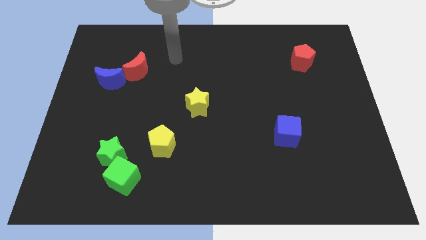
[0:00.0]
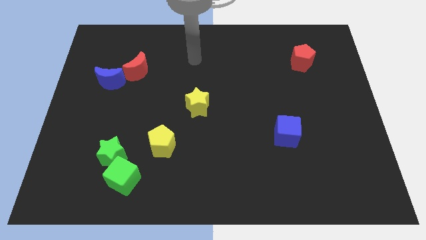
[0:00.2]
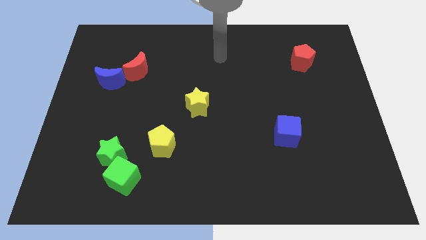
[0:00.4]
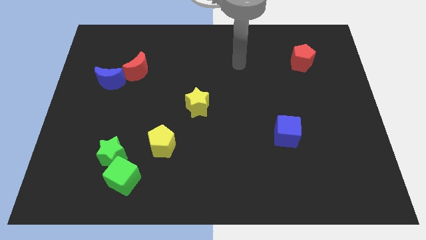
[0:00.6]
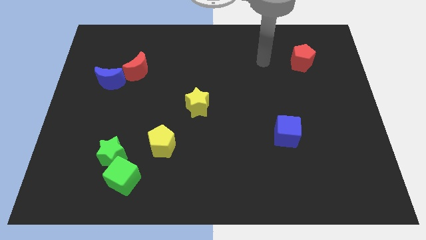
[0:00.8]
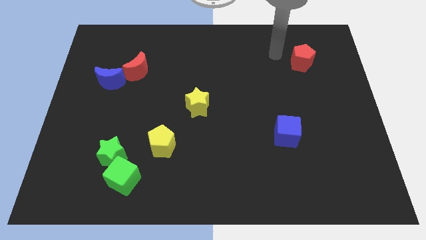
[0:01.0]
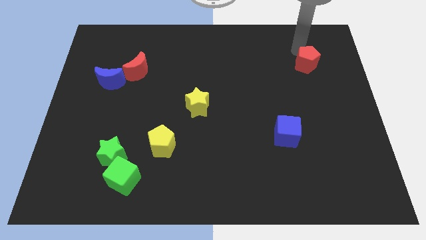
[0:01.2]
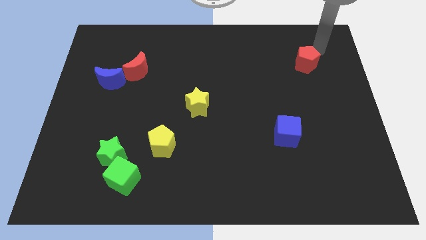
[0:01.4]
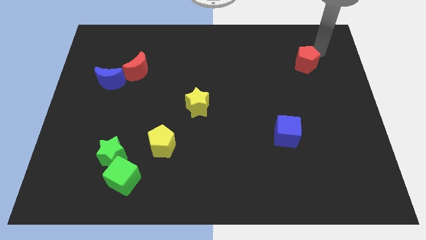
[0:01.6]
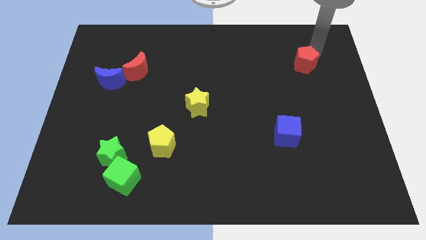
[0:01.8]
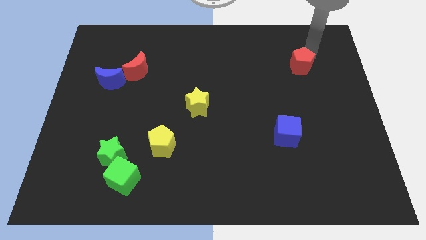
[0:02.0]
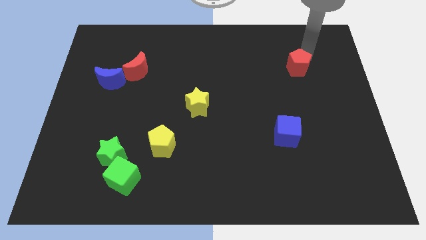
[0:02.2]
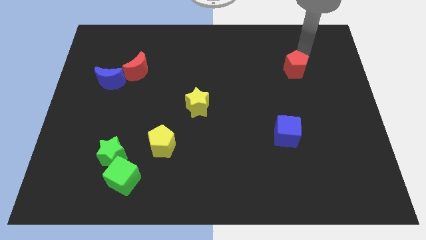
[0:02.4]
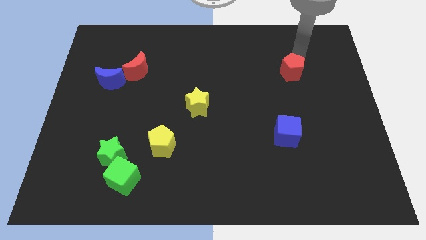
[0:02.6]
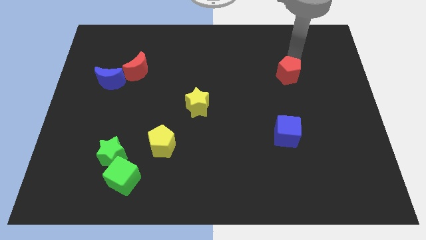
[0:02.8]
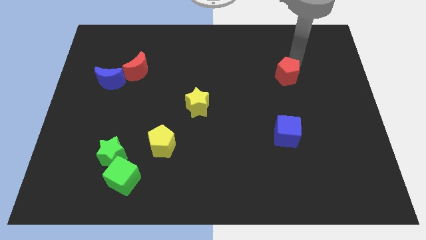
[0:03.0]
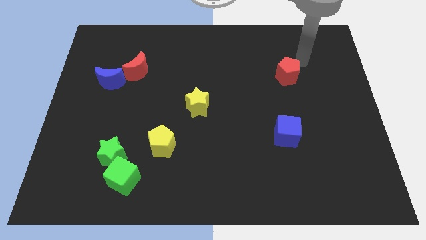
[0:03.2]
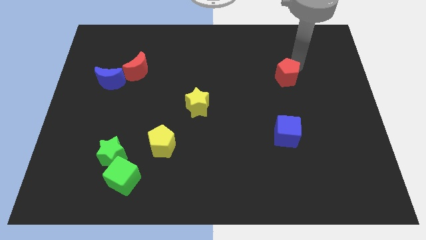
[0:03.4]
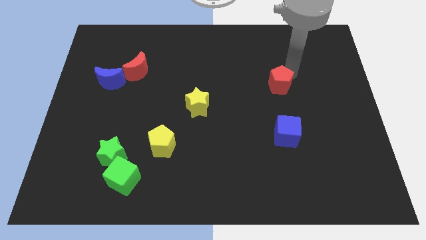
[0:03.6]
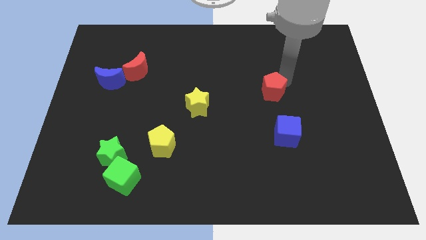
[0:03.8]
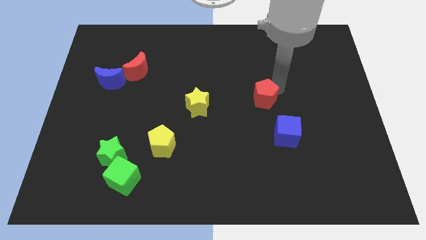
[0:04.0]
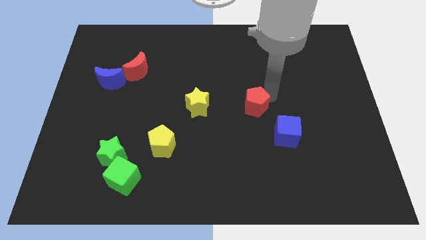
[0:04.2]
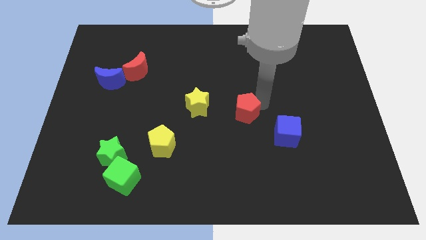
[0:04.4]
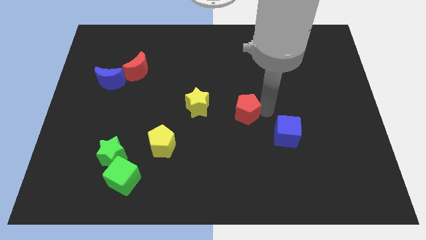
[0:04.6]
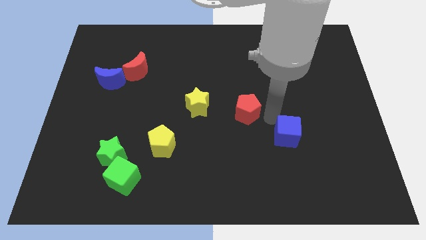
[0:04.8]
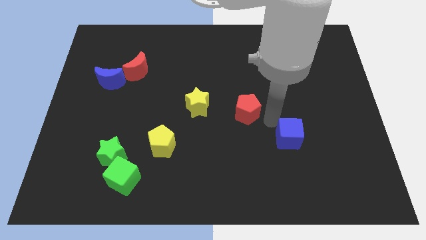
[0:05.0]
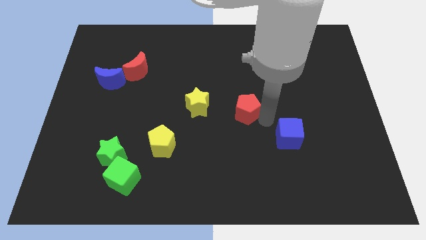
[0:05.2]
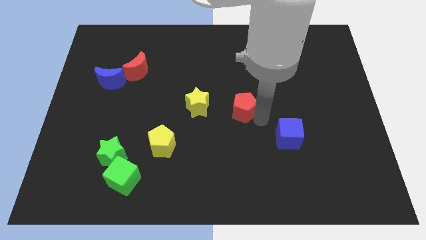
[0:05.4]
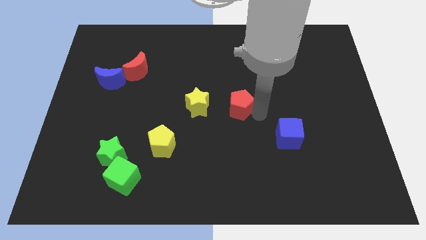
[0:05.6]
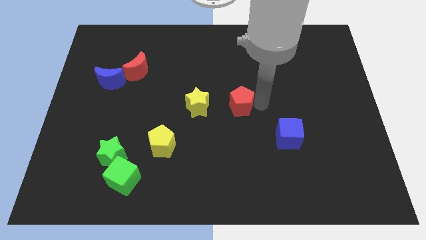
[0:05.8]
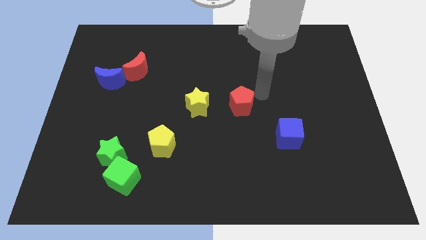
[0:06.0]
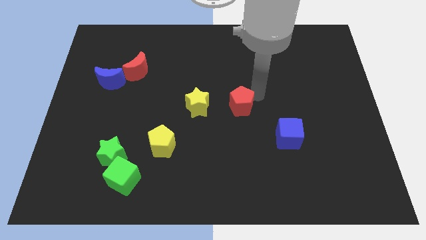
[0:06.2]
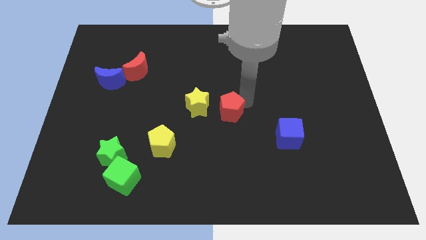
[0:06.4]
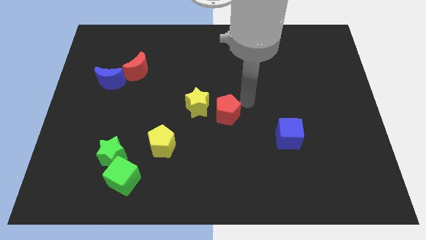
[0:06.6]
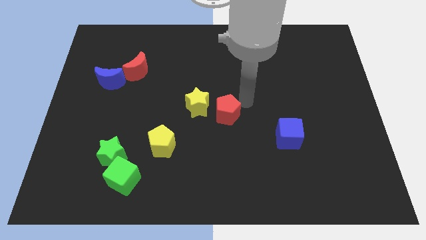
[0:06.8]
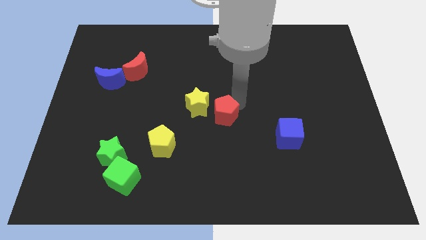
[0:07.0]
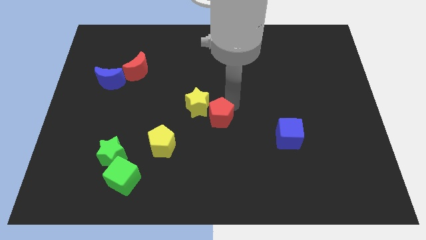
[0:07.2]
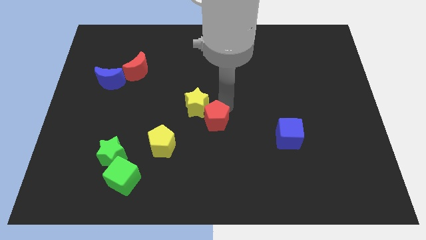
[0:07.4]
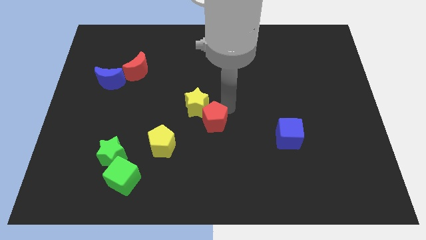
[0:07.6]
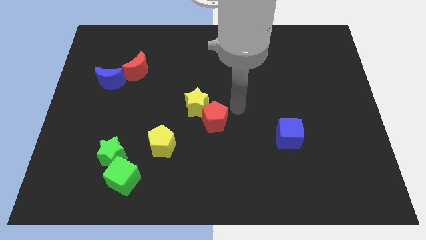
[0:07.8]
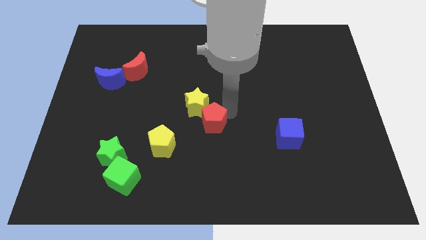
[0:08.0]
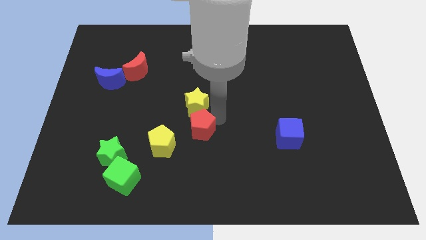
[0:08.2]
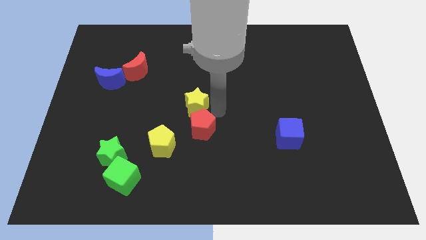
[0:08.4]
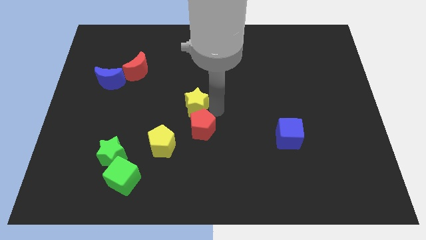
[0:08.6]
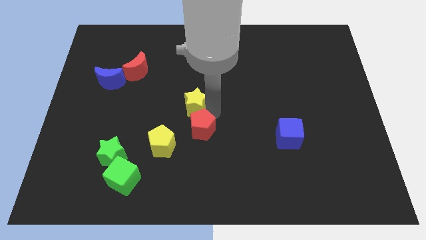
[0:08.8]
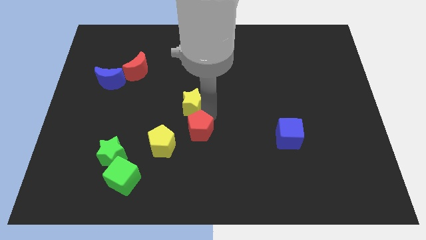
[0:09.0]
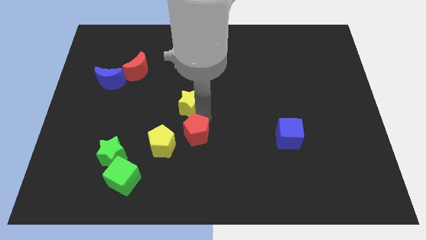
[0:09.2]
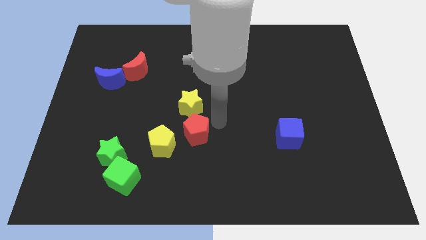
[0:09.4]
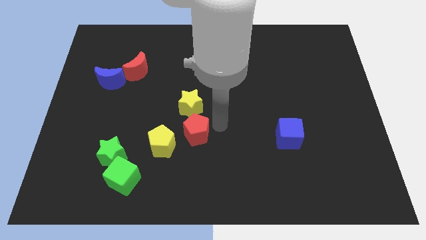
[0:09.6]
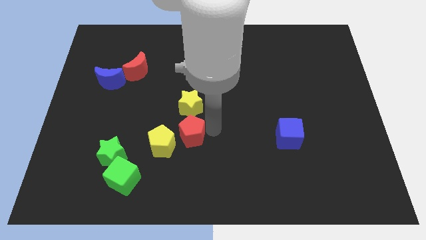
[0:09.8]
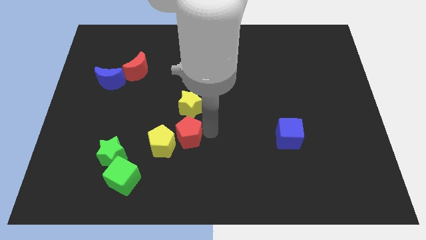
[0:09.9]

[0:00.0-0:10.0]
put the red pentagon towards the yellow pentagon

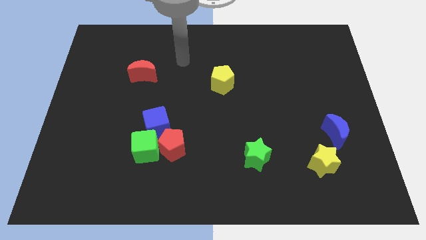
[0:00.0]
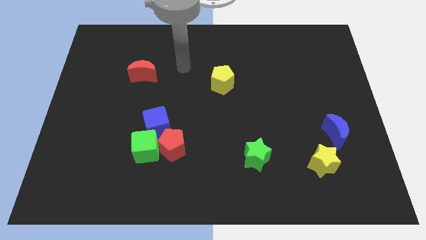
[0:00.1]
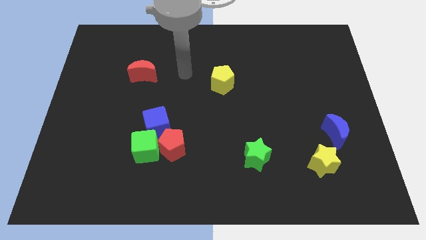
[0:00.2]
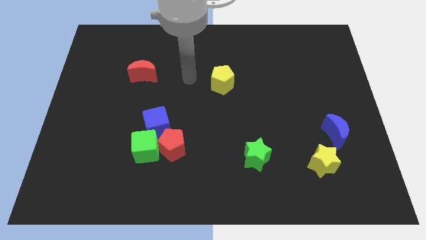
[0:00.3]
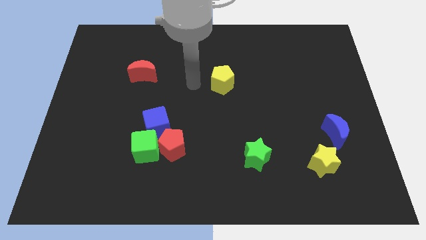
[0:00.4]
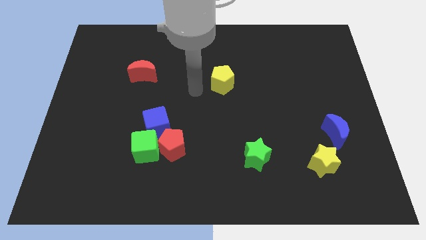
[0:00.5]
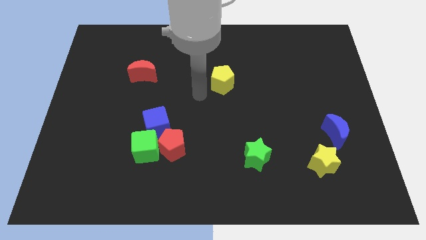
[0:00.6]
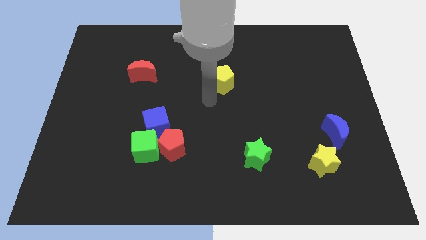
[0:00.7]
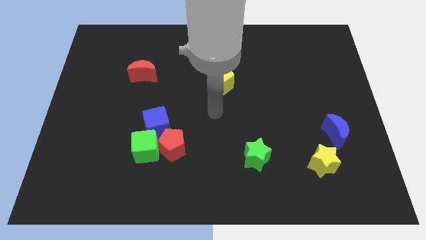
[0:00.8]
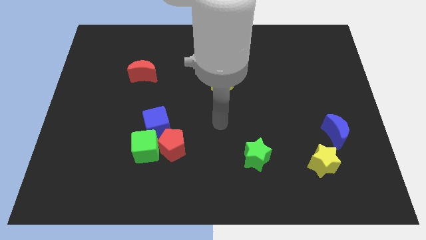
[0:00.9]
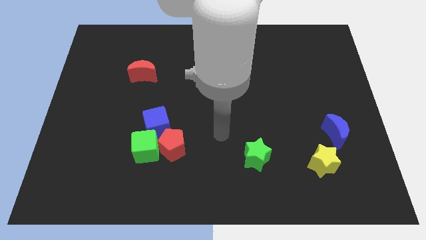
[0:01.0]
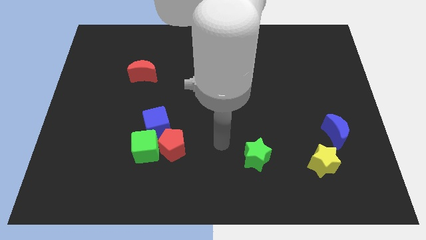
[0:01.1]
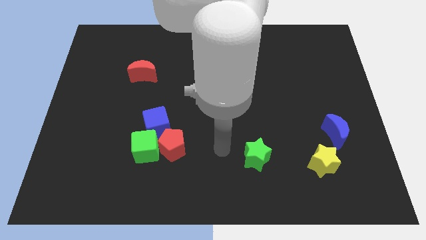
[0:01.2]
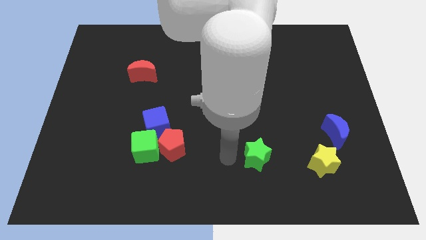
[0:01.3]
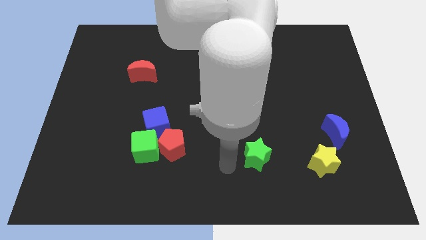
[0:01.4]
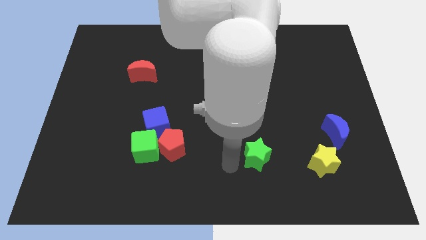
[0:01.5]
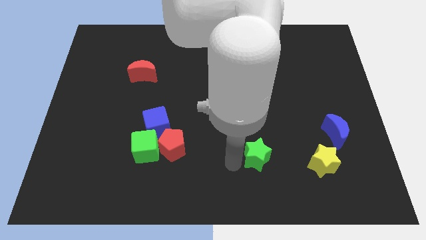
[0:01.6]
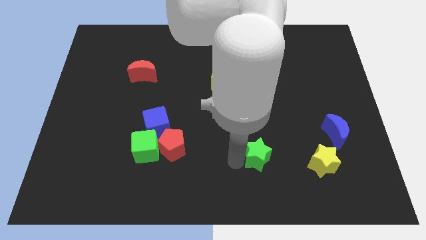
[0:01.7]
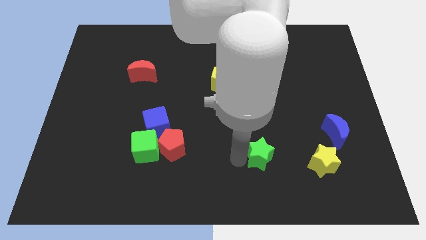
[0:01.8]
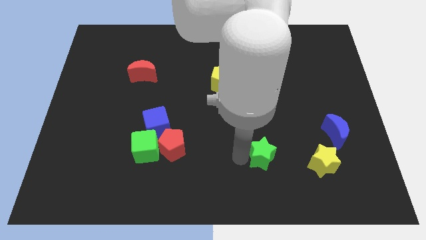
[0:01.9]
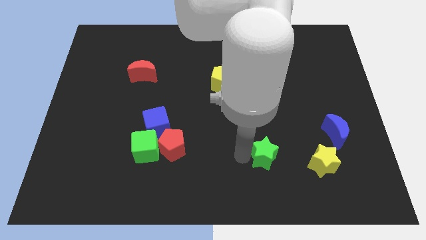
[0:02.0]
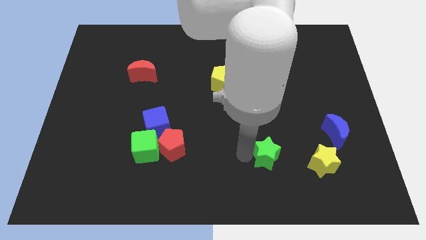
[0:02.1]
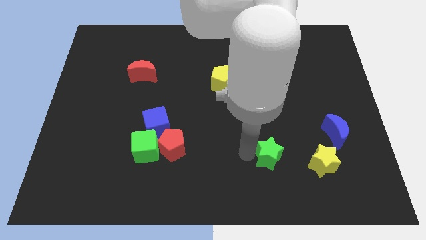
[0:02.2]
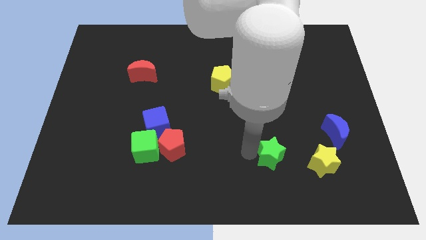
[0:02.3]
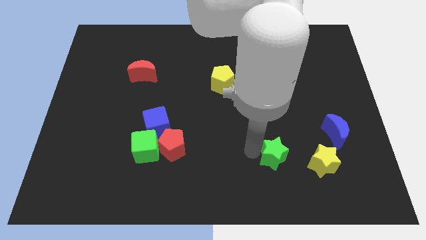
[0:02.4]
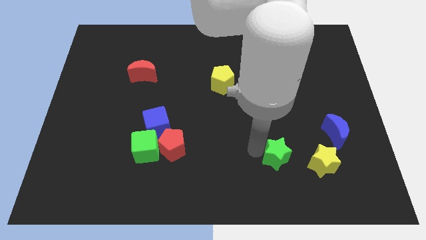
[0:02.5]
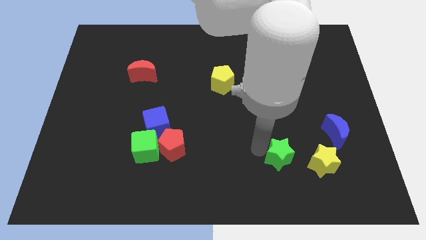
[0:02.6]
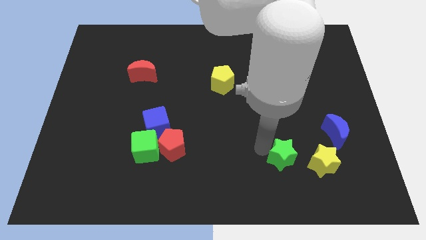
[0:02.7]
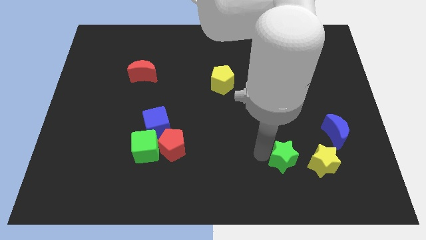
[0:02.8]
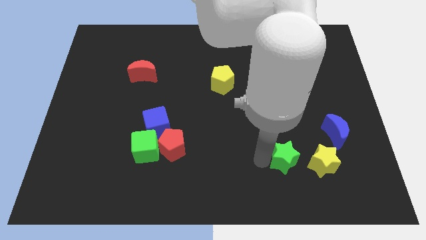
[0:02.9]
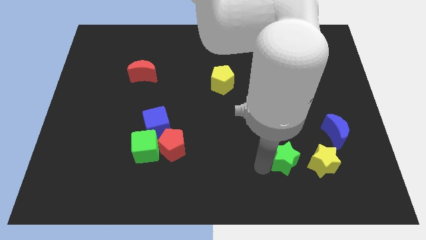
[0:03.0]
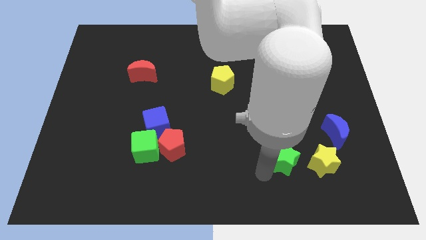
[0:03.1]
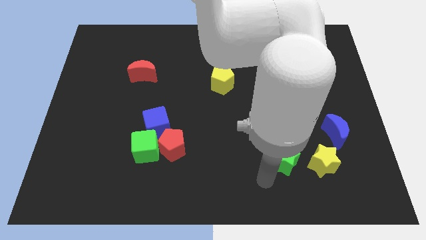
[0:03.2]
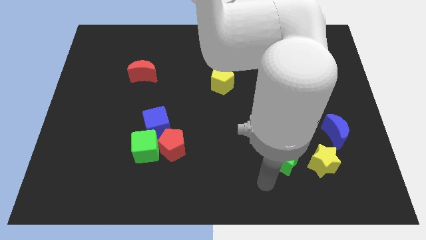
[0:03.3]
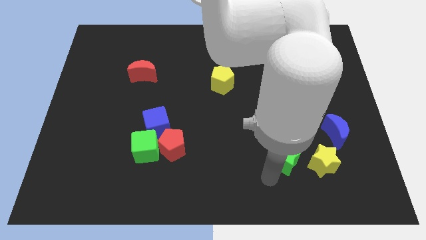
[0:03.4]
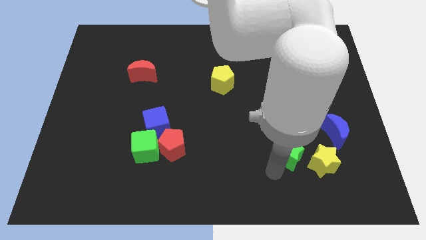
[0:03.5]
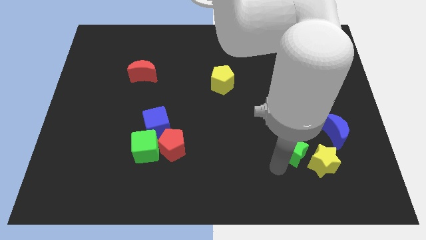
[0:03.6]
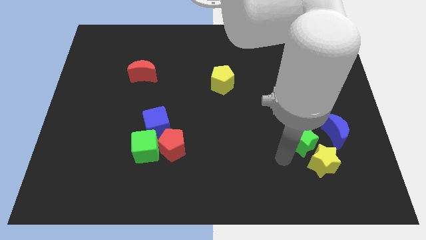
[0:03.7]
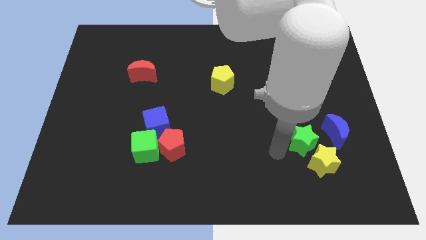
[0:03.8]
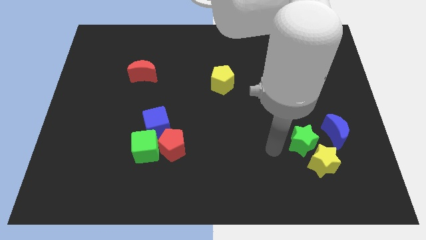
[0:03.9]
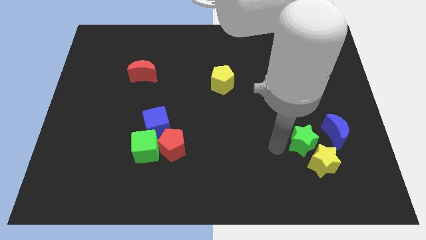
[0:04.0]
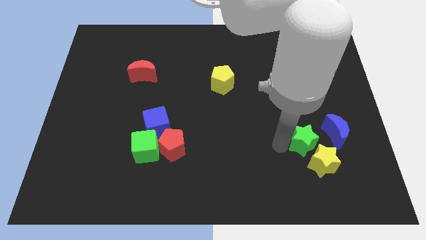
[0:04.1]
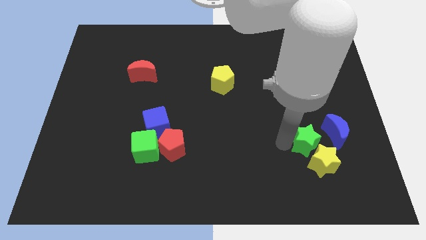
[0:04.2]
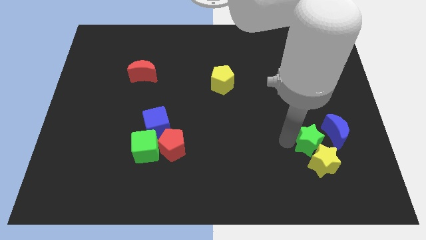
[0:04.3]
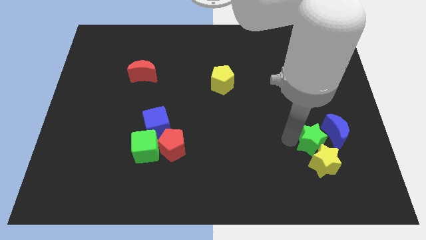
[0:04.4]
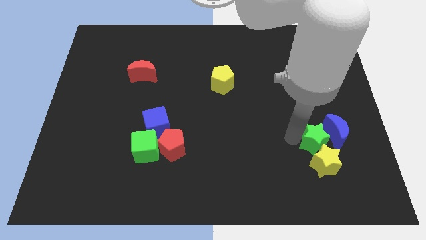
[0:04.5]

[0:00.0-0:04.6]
move the green star towards the blue moon
